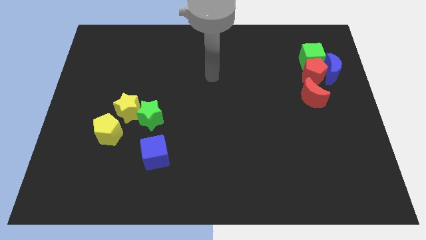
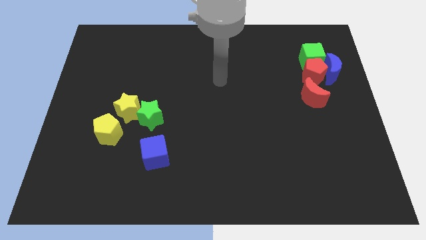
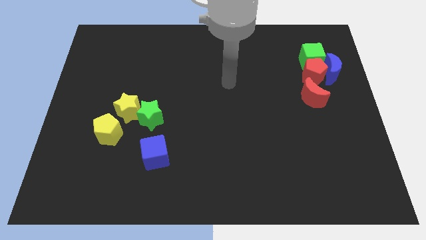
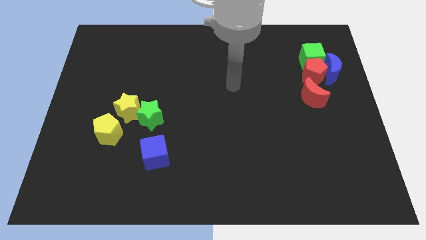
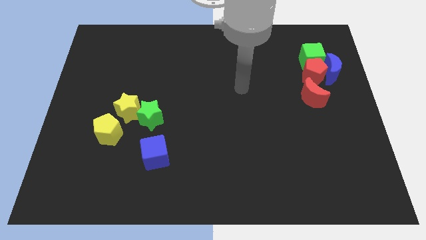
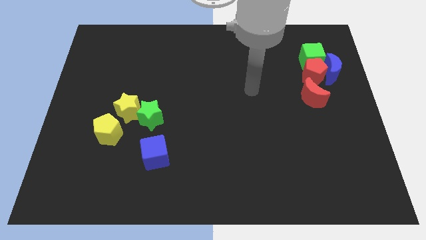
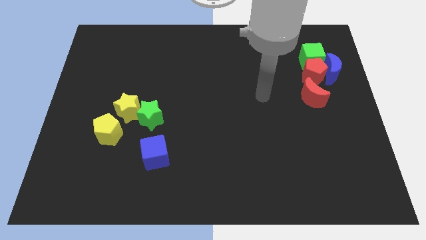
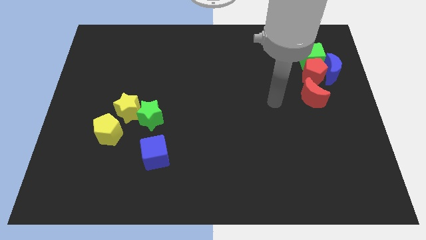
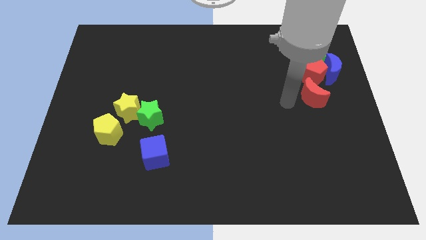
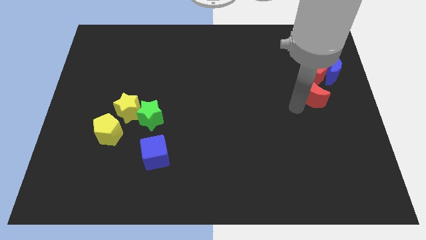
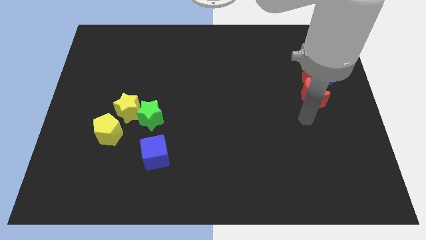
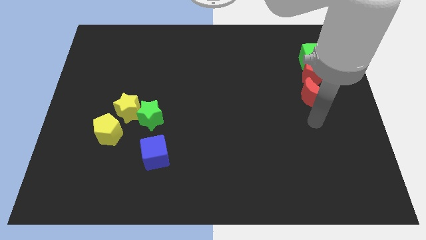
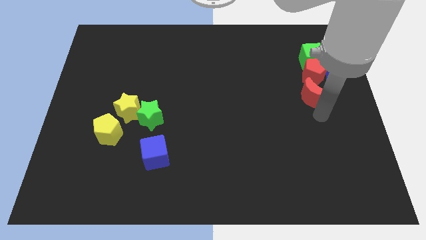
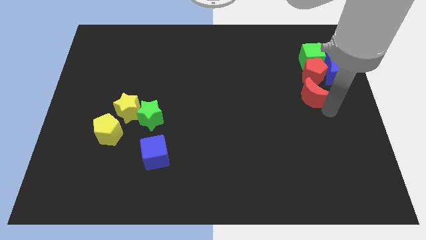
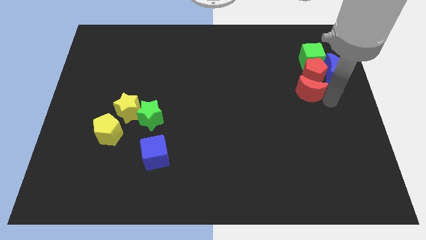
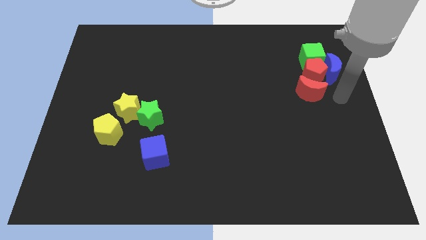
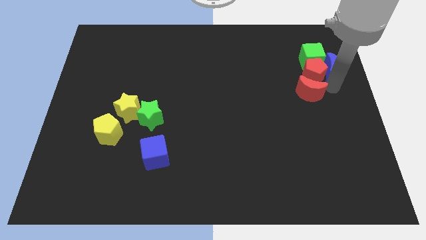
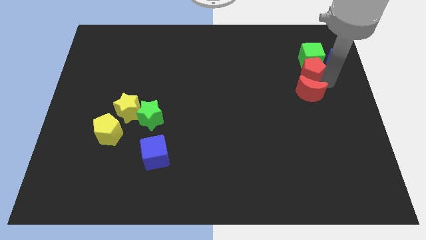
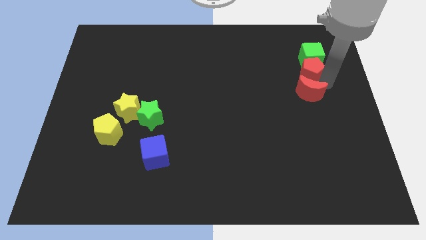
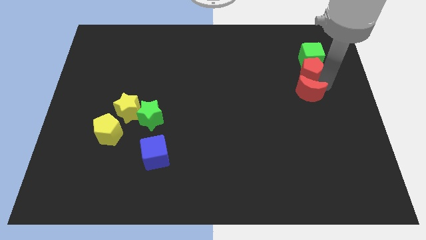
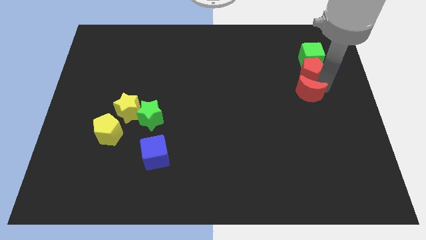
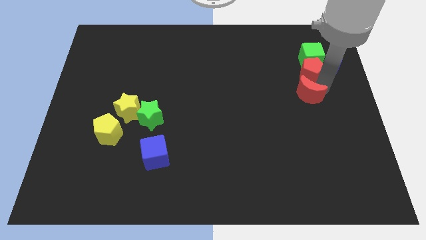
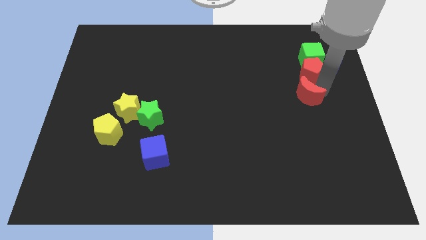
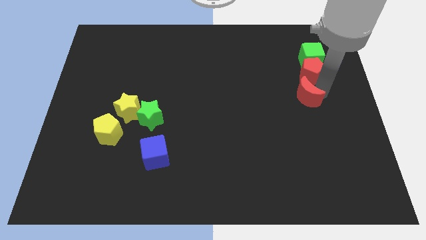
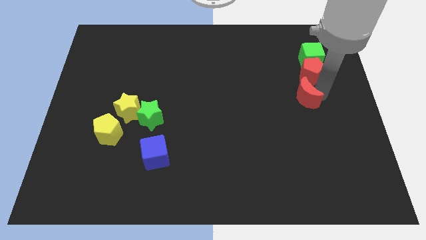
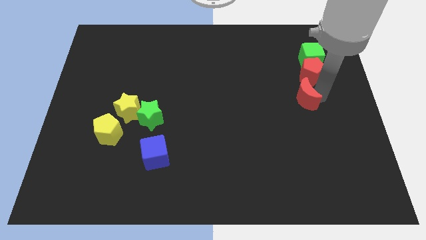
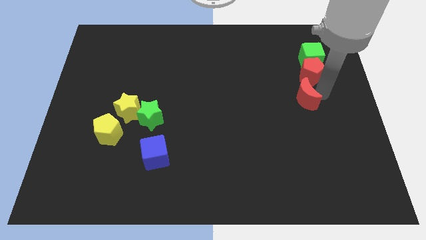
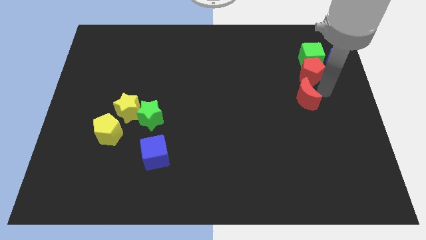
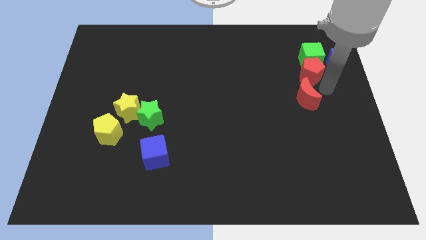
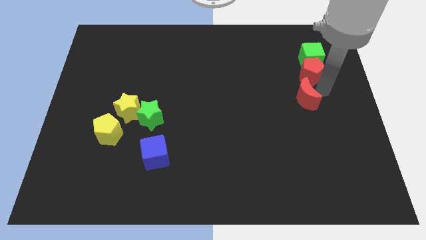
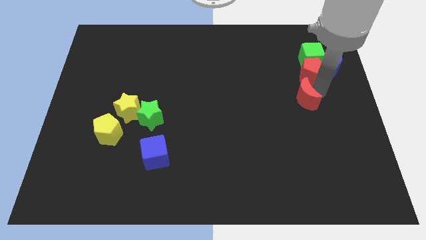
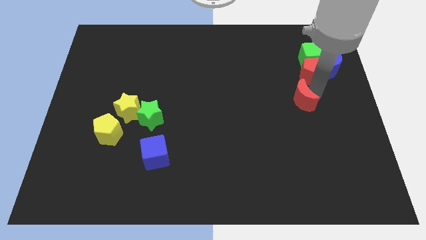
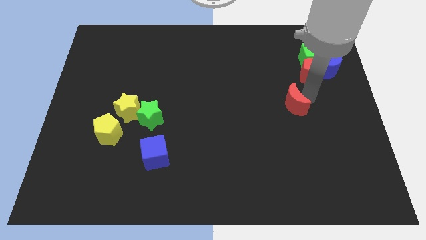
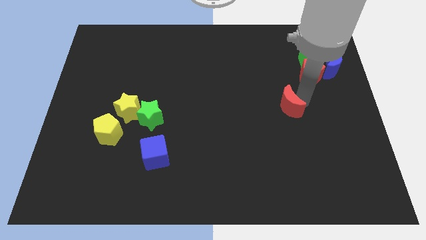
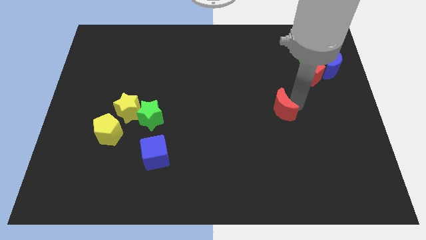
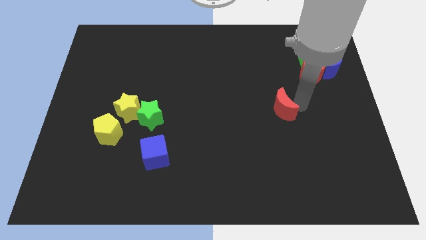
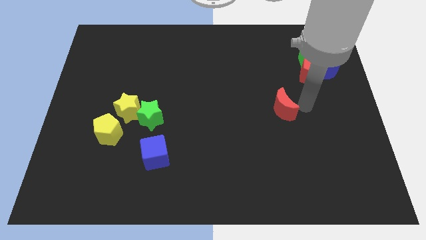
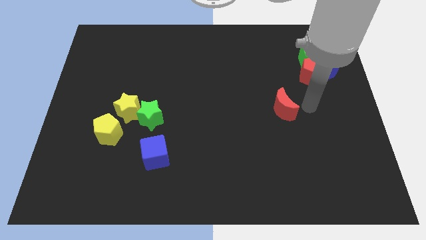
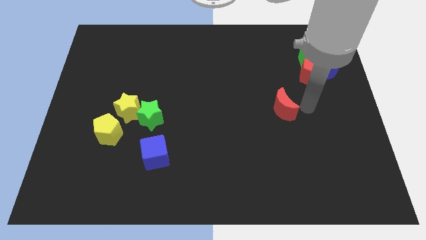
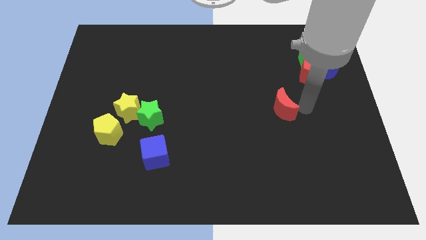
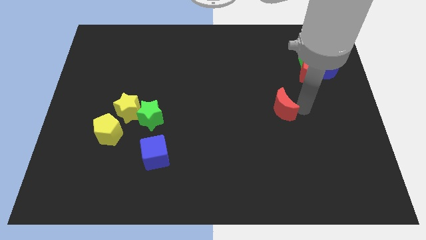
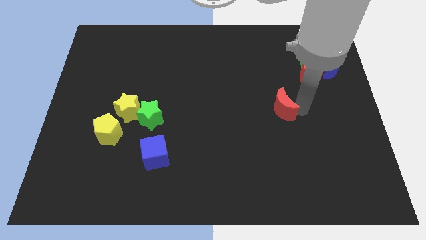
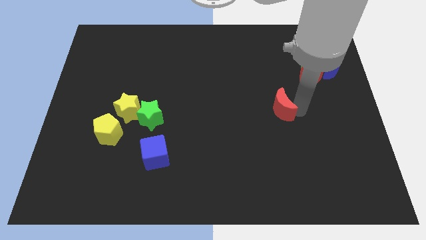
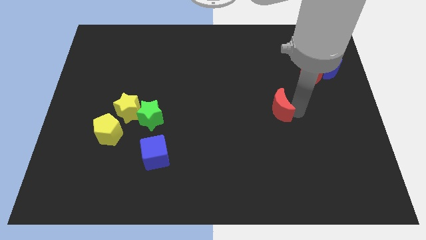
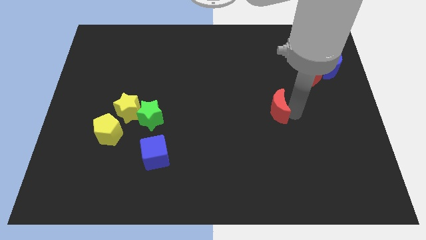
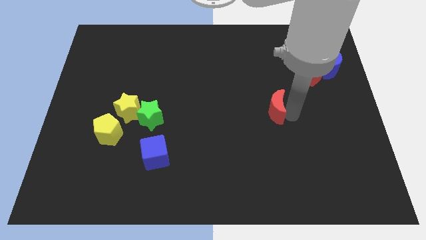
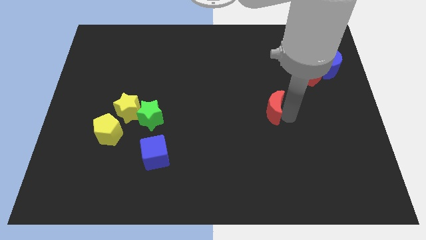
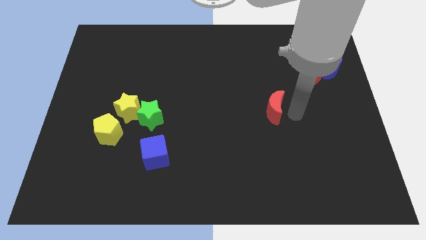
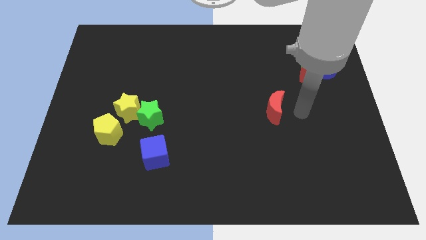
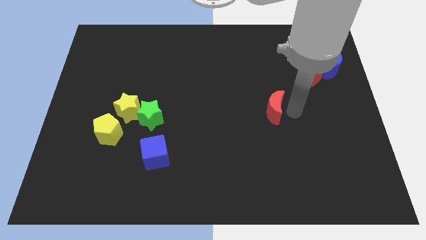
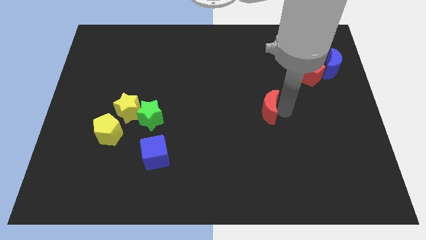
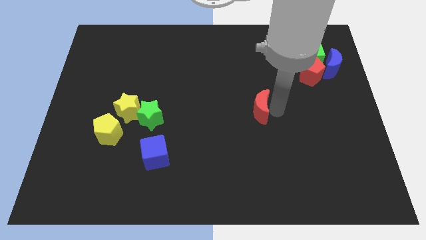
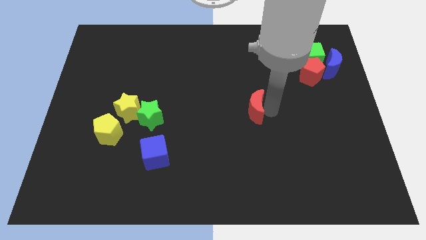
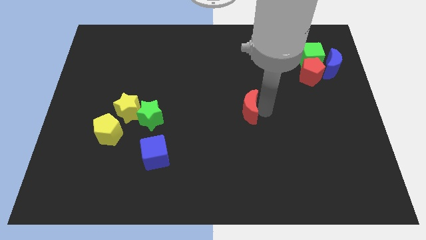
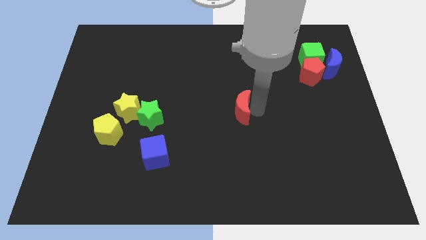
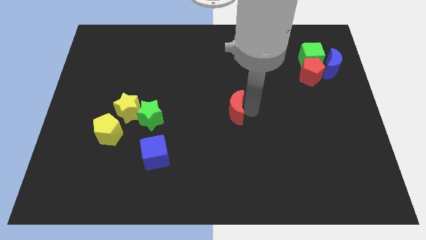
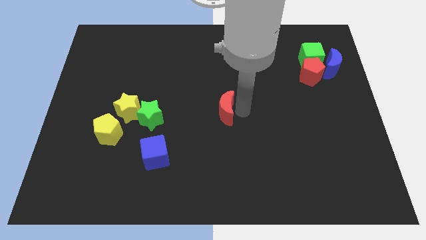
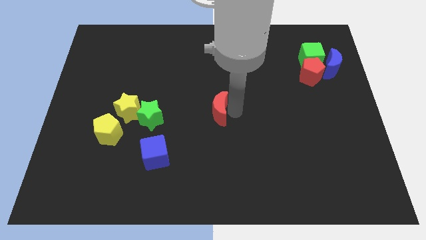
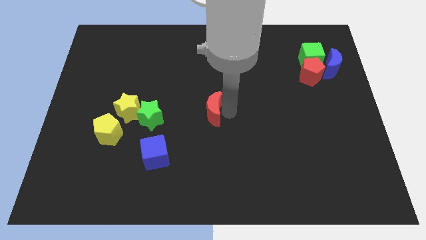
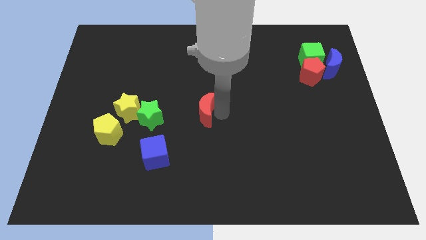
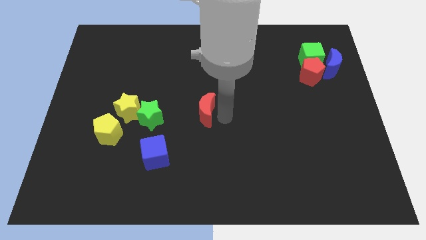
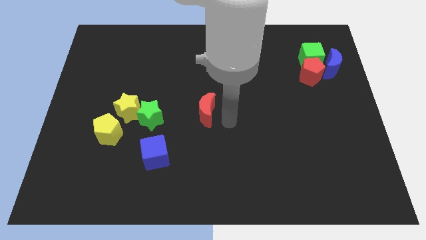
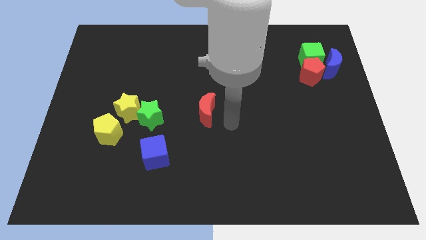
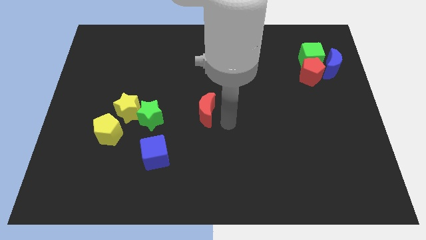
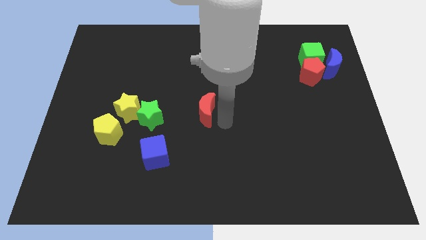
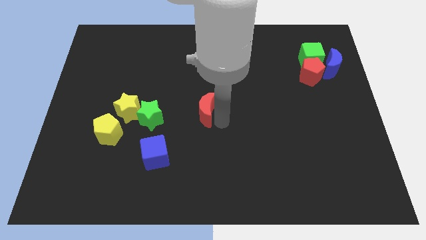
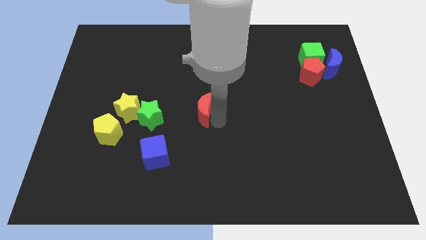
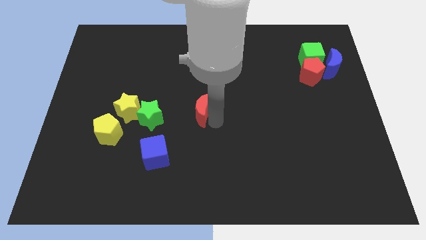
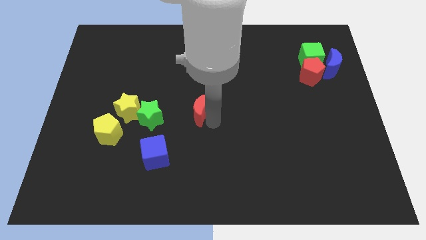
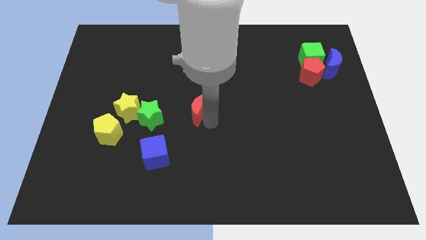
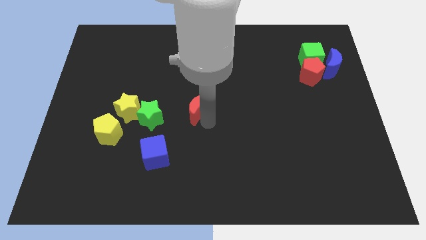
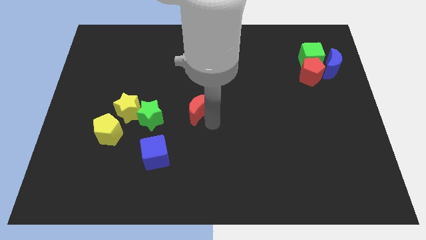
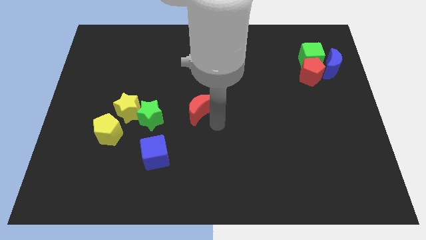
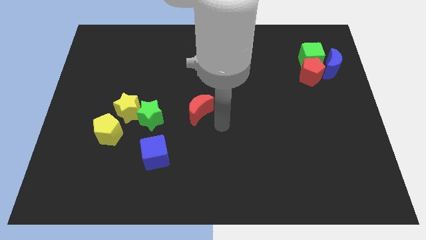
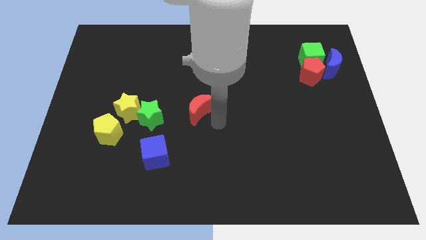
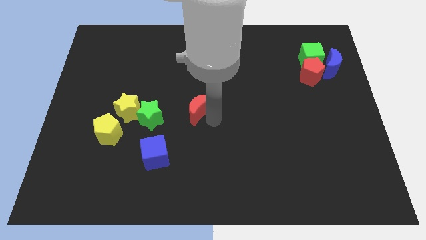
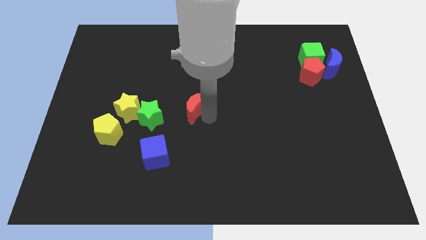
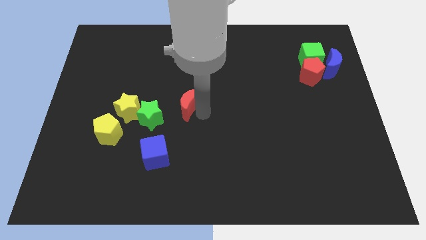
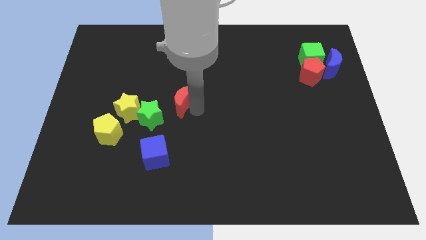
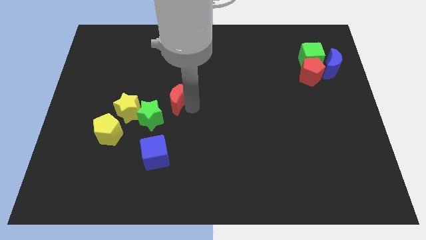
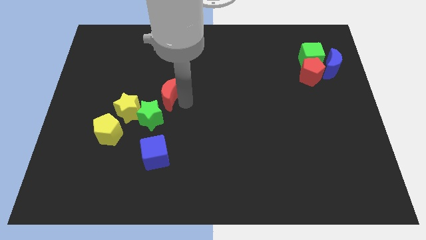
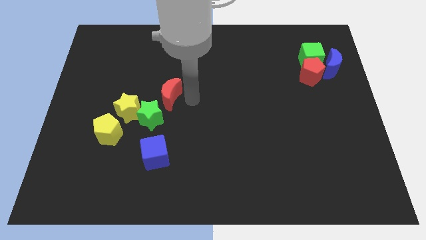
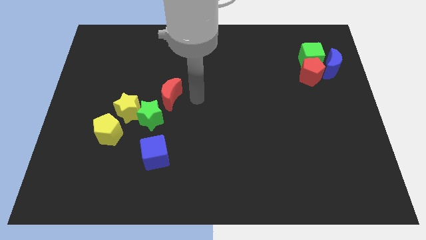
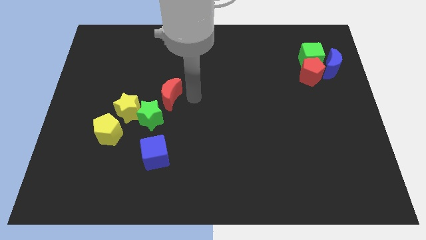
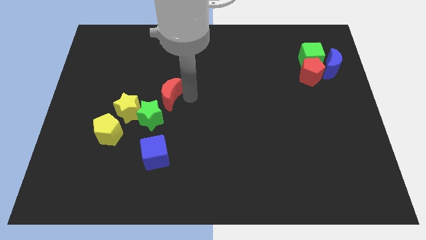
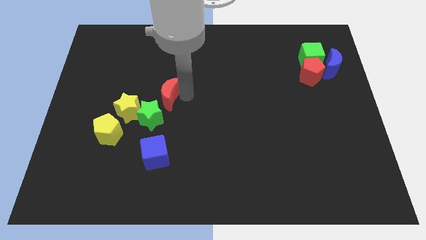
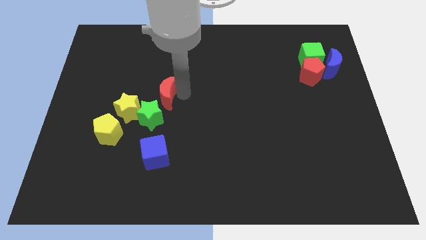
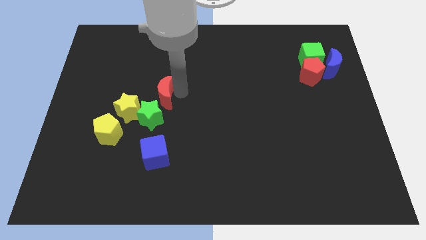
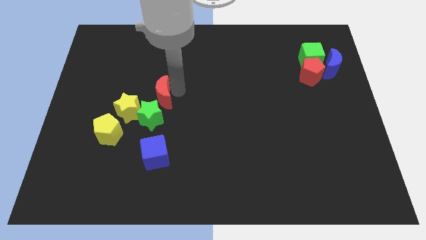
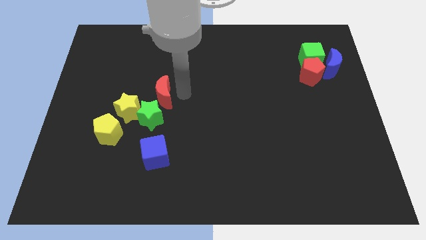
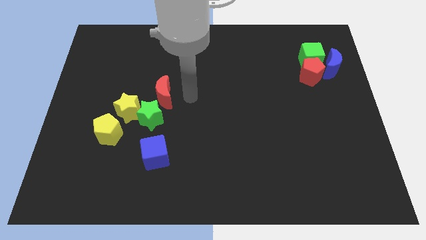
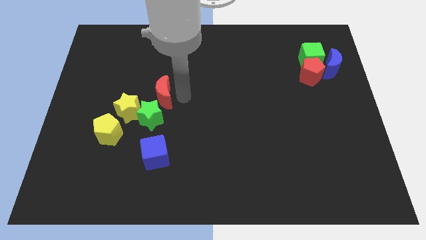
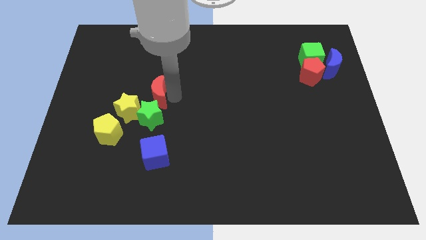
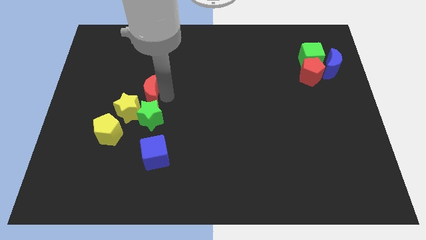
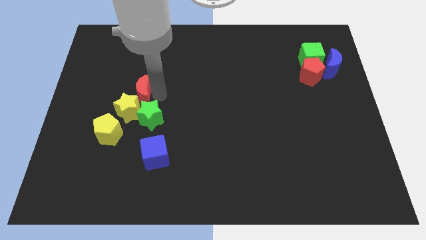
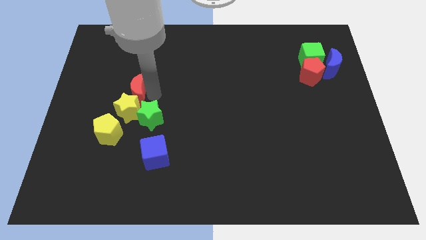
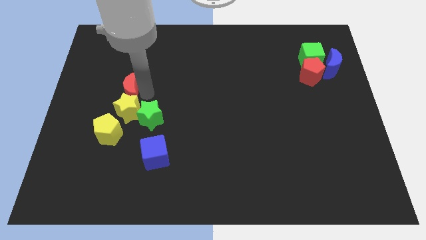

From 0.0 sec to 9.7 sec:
move the red moon to the top left of the yellow star
